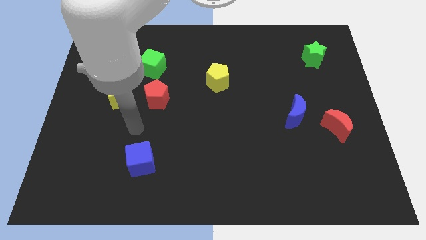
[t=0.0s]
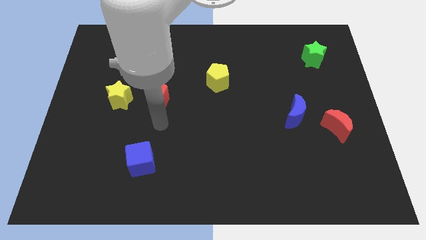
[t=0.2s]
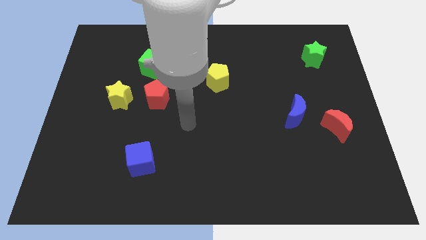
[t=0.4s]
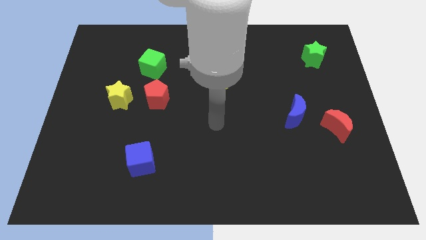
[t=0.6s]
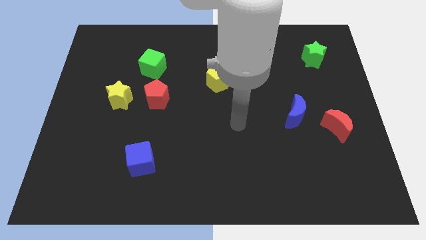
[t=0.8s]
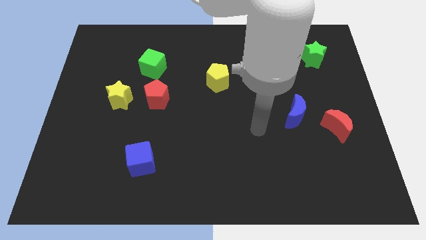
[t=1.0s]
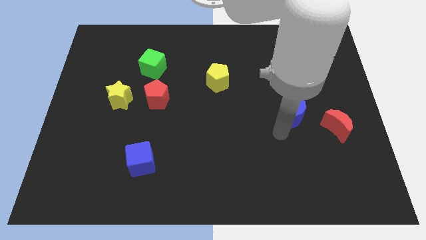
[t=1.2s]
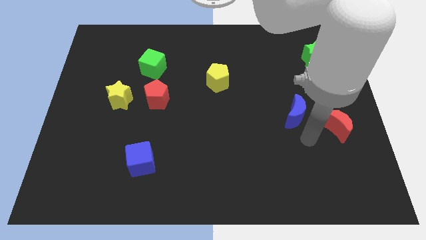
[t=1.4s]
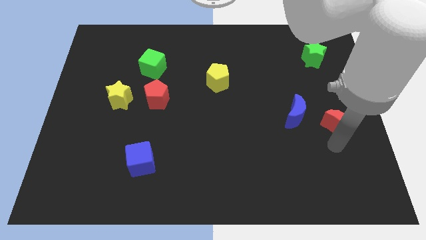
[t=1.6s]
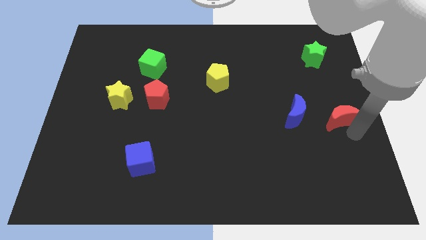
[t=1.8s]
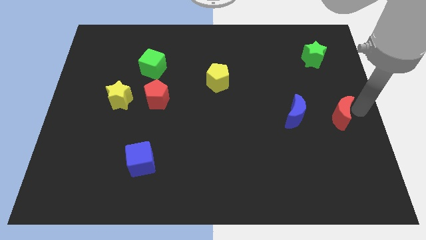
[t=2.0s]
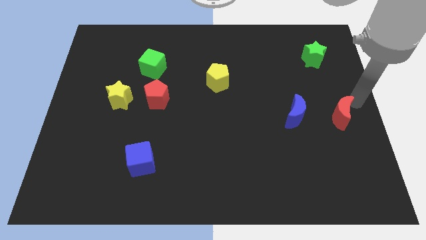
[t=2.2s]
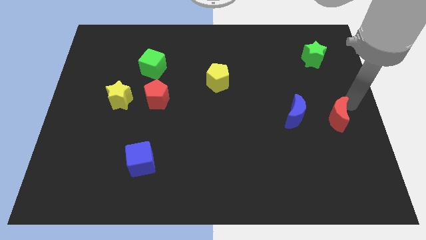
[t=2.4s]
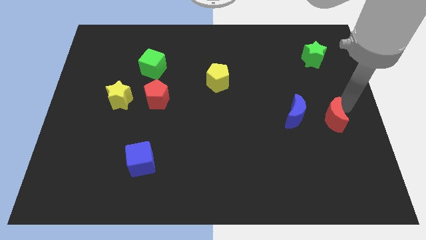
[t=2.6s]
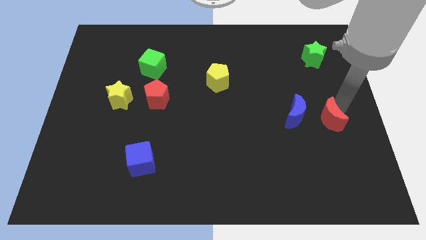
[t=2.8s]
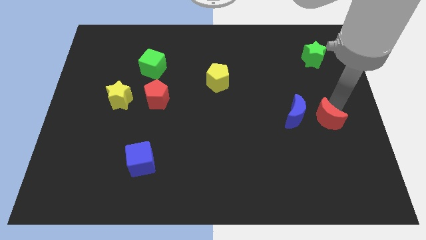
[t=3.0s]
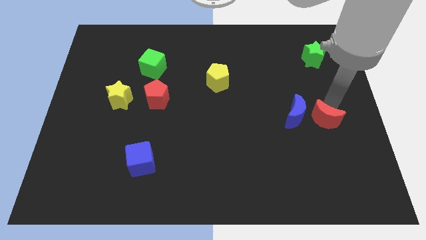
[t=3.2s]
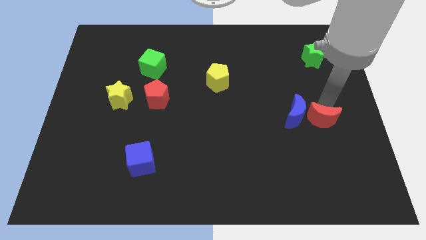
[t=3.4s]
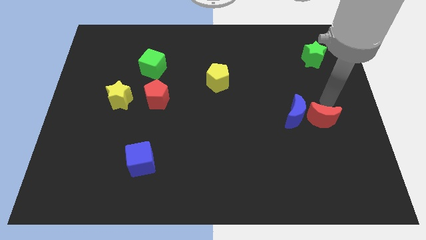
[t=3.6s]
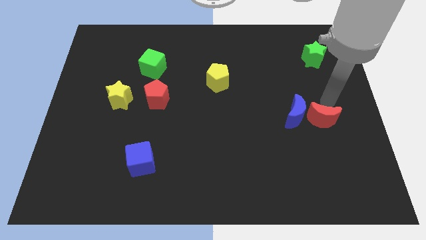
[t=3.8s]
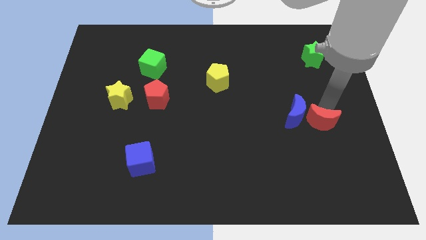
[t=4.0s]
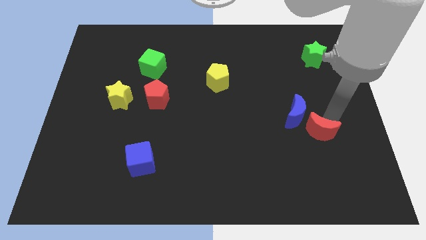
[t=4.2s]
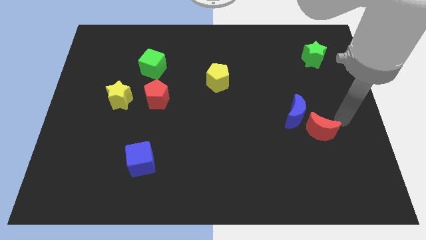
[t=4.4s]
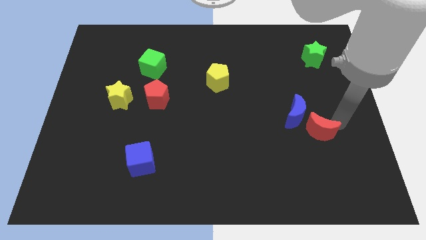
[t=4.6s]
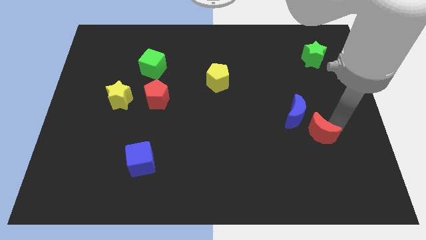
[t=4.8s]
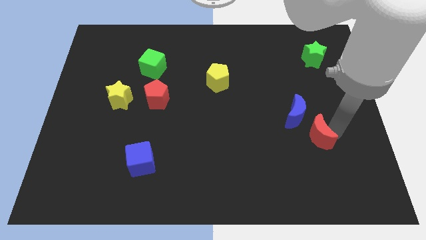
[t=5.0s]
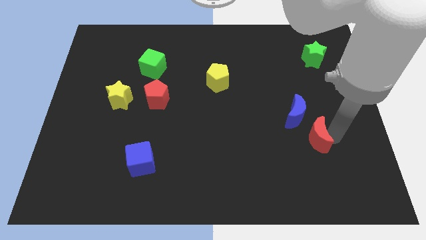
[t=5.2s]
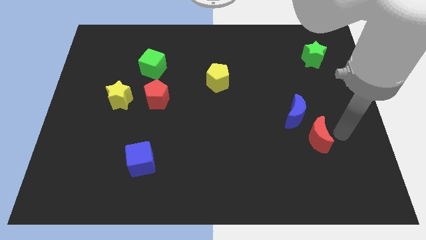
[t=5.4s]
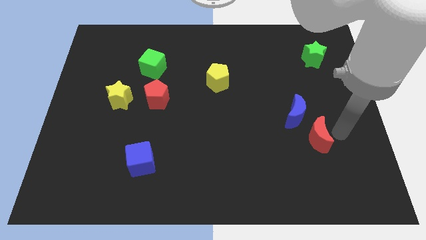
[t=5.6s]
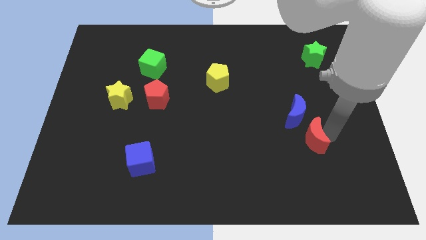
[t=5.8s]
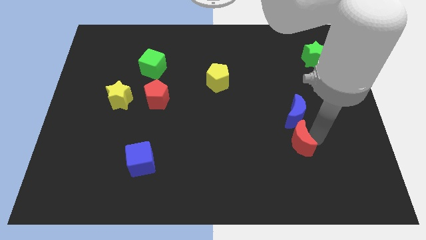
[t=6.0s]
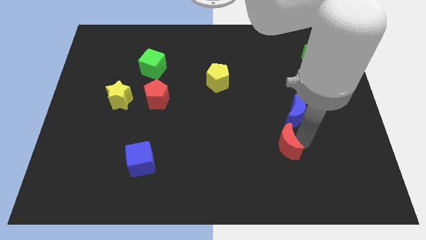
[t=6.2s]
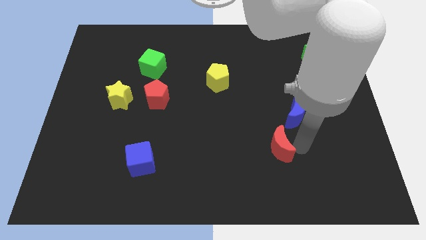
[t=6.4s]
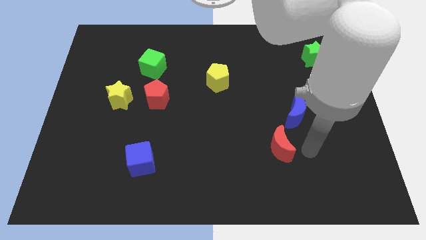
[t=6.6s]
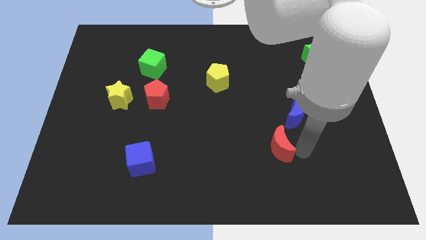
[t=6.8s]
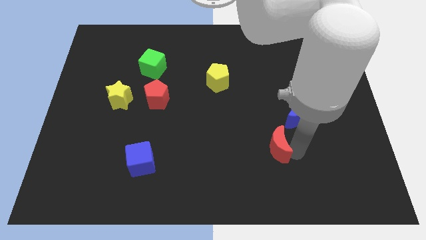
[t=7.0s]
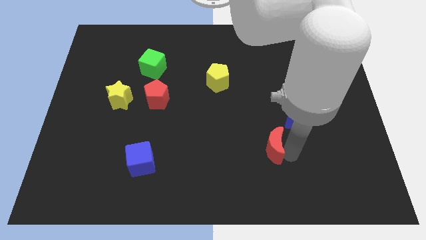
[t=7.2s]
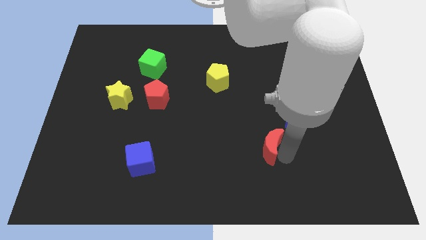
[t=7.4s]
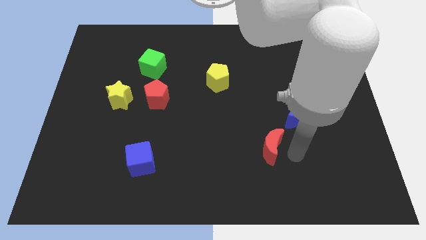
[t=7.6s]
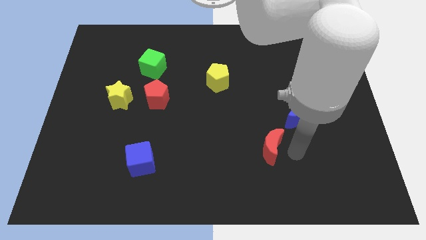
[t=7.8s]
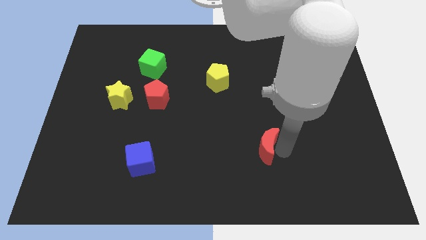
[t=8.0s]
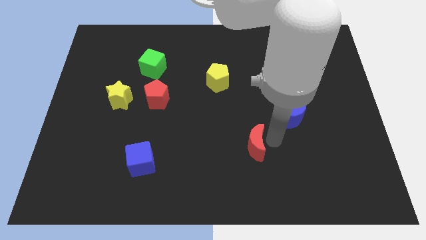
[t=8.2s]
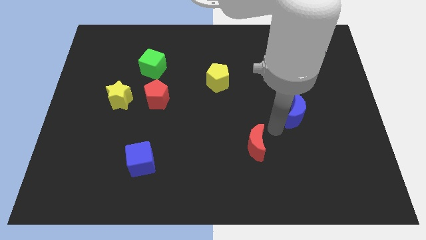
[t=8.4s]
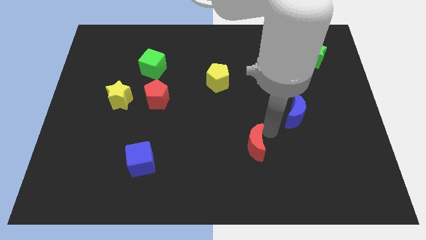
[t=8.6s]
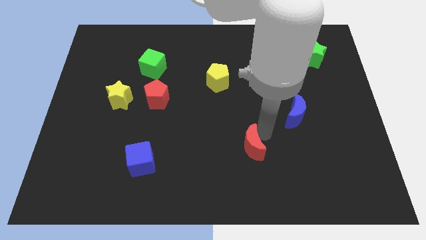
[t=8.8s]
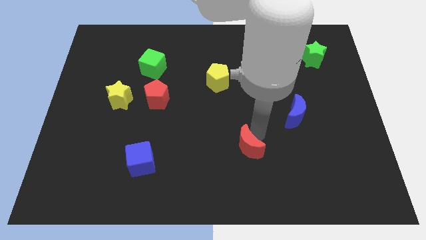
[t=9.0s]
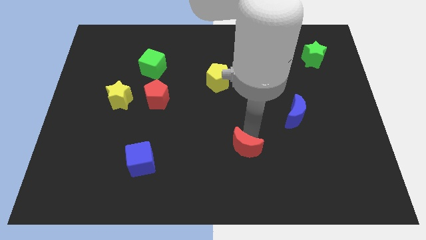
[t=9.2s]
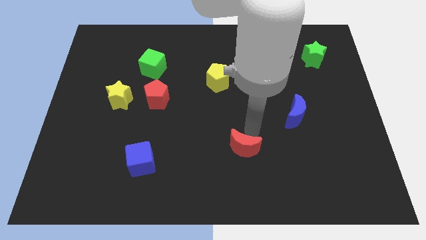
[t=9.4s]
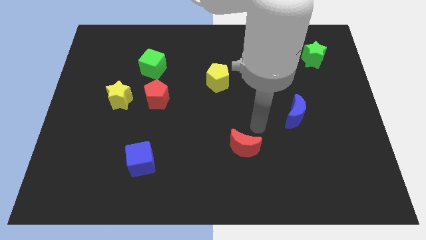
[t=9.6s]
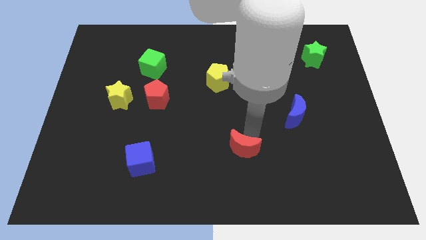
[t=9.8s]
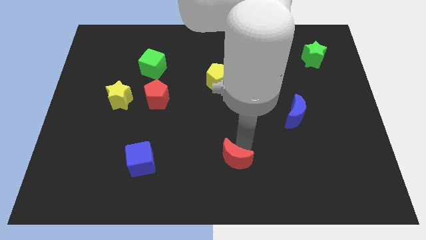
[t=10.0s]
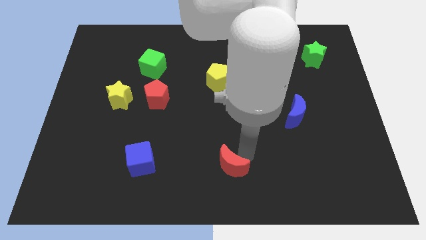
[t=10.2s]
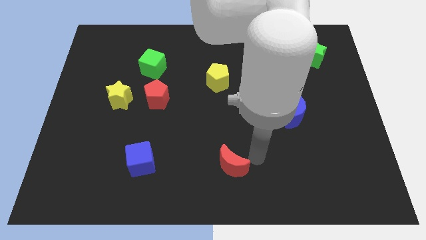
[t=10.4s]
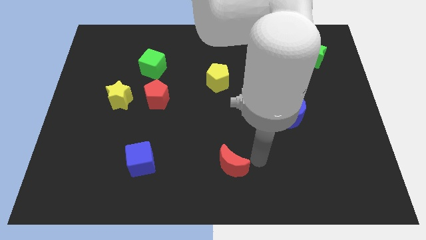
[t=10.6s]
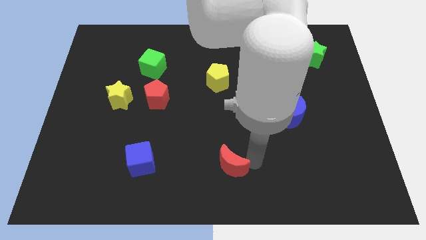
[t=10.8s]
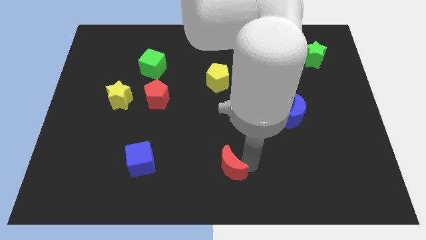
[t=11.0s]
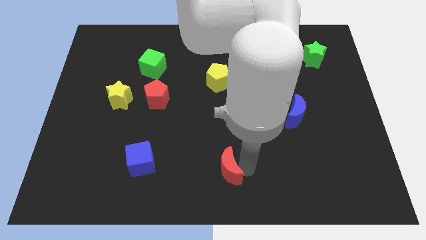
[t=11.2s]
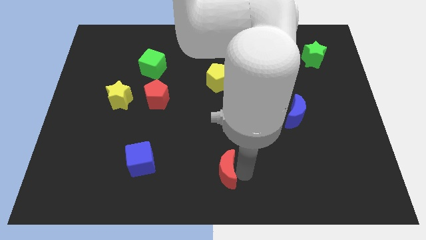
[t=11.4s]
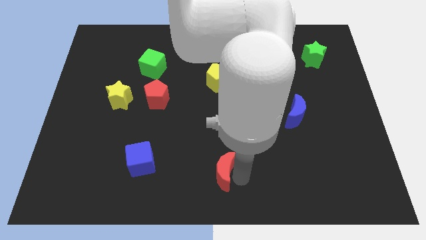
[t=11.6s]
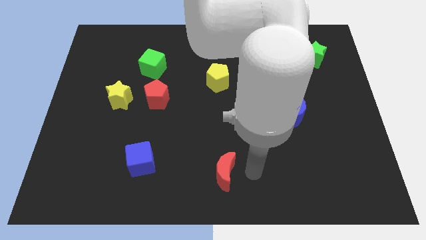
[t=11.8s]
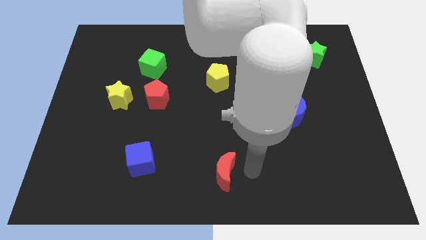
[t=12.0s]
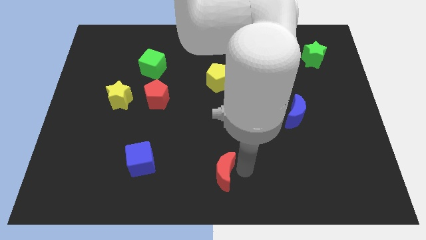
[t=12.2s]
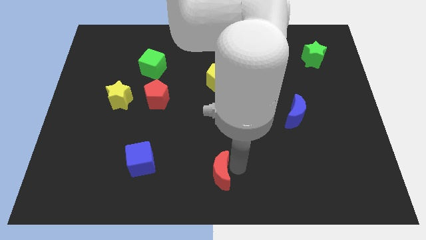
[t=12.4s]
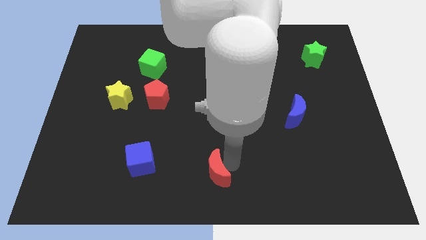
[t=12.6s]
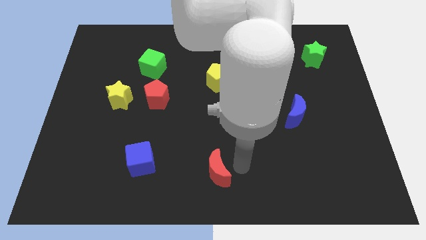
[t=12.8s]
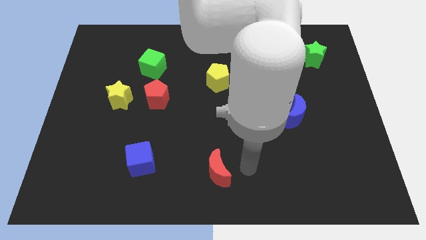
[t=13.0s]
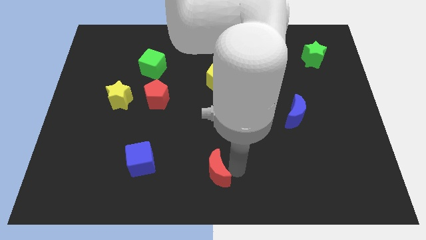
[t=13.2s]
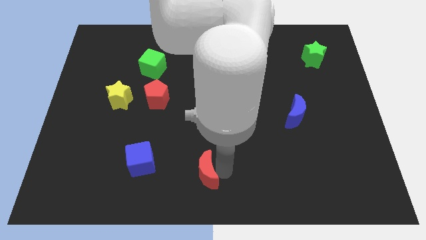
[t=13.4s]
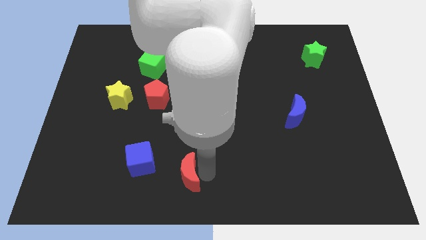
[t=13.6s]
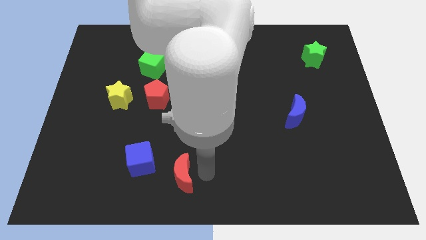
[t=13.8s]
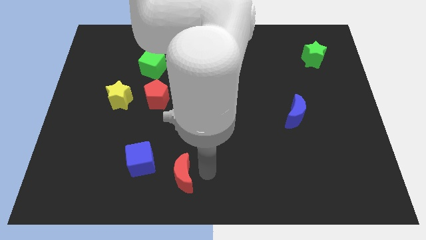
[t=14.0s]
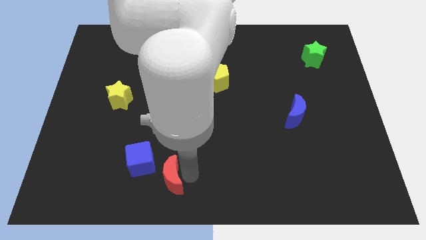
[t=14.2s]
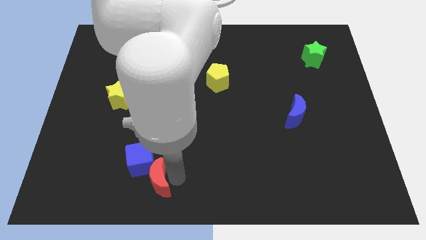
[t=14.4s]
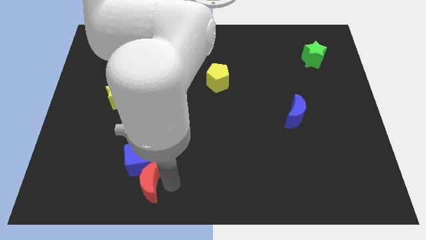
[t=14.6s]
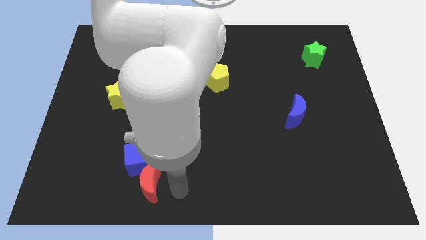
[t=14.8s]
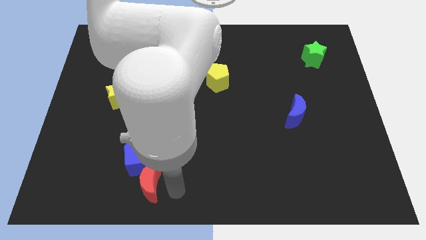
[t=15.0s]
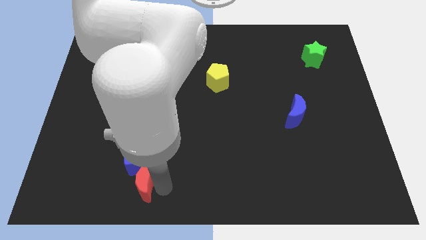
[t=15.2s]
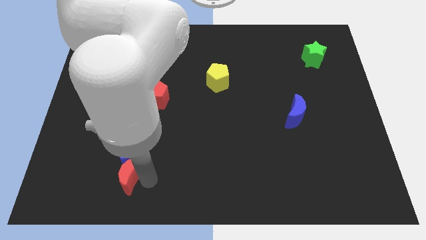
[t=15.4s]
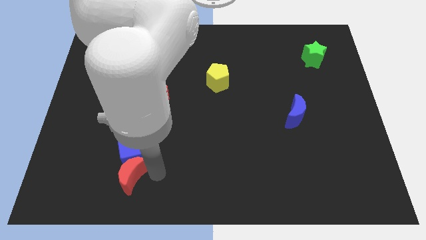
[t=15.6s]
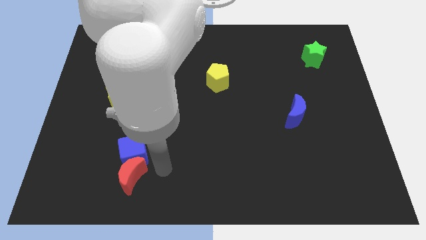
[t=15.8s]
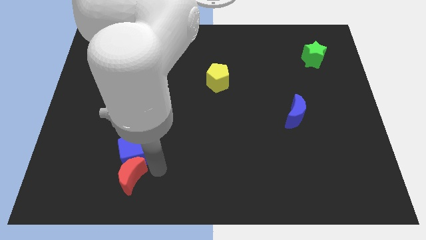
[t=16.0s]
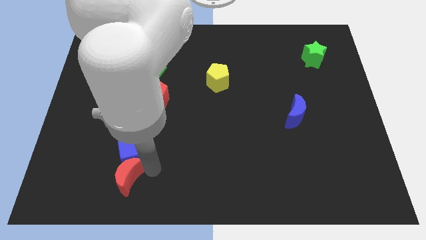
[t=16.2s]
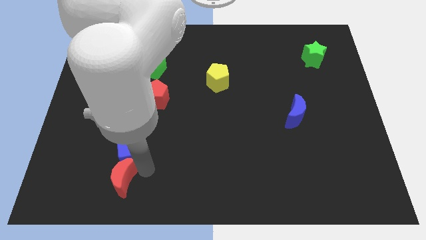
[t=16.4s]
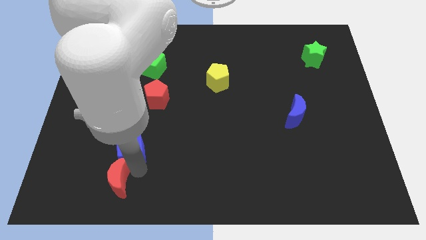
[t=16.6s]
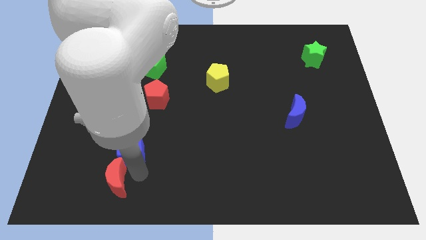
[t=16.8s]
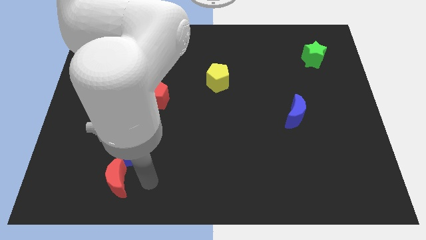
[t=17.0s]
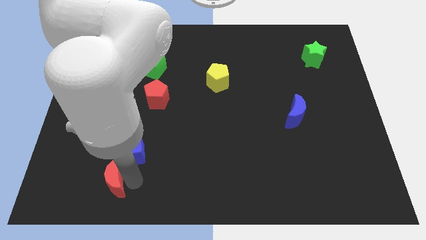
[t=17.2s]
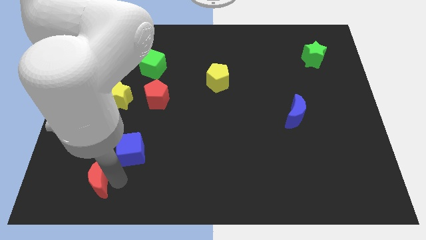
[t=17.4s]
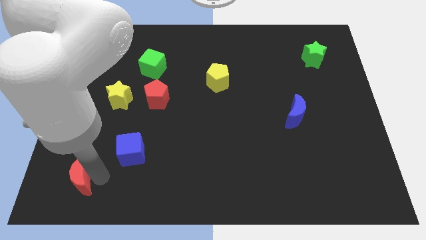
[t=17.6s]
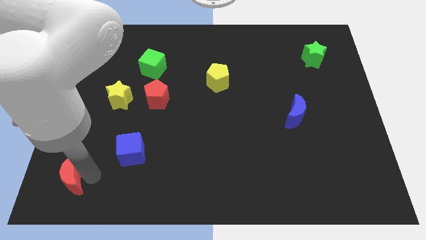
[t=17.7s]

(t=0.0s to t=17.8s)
put the red moon to the bottom left
